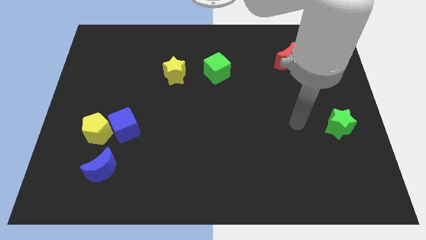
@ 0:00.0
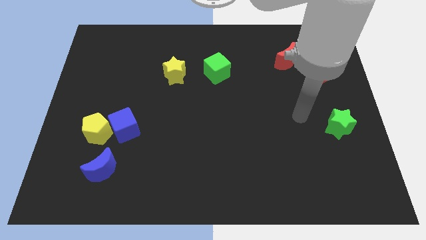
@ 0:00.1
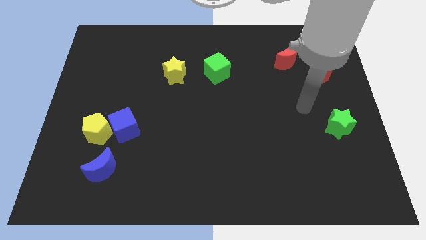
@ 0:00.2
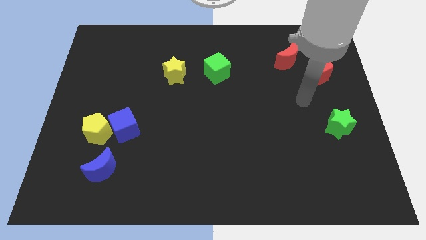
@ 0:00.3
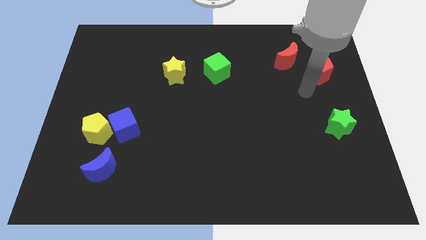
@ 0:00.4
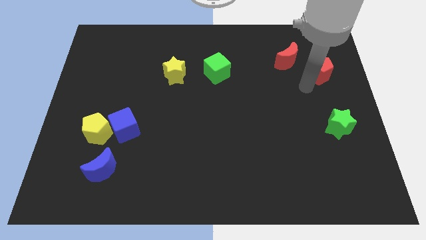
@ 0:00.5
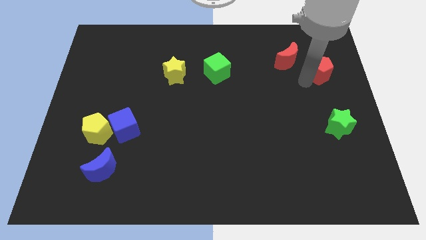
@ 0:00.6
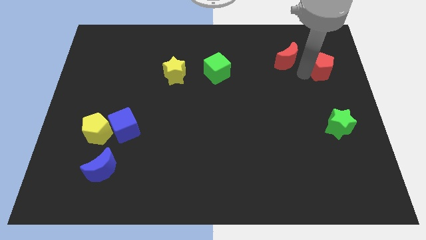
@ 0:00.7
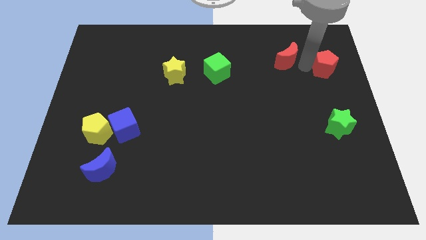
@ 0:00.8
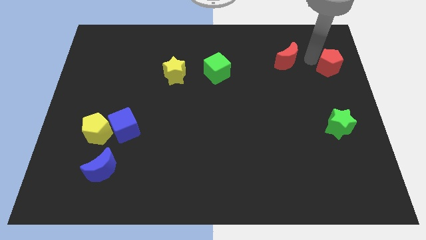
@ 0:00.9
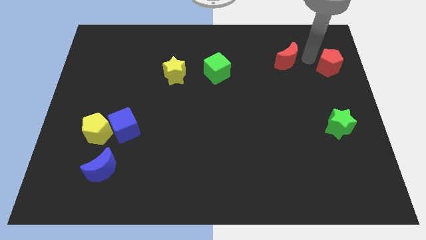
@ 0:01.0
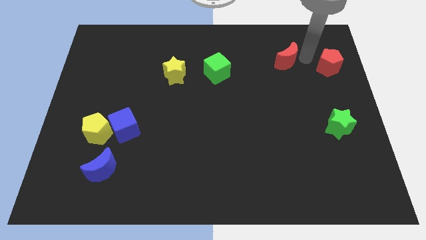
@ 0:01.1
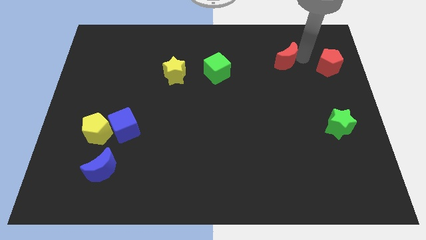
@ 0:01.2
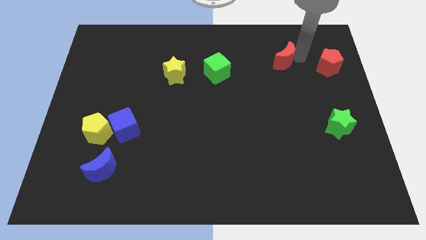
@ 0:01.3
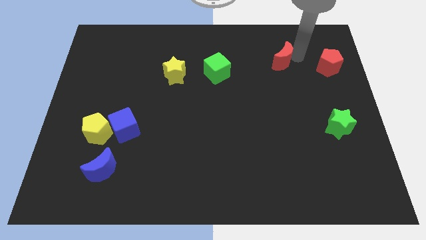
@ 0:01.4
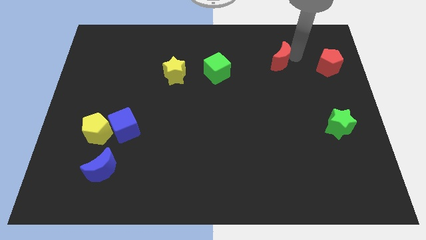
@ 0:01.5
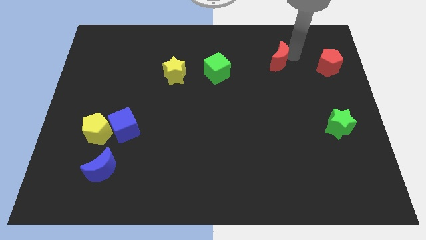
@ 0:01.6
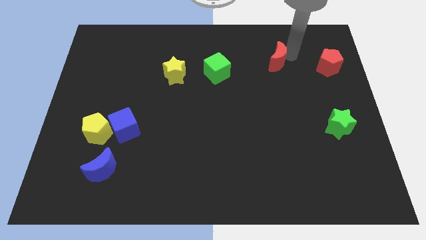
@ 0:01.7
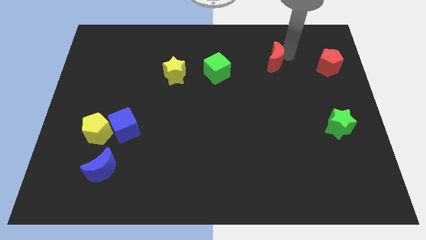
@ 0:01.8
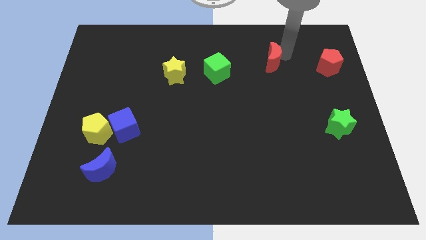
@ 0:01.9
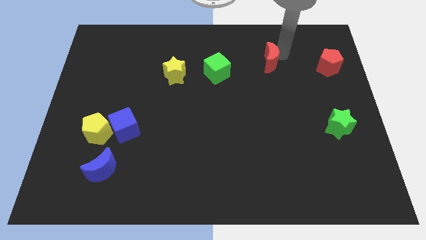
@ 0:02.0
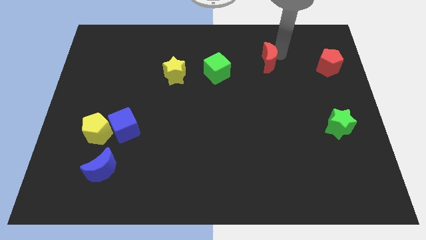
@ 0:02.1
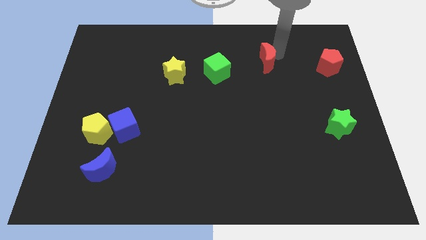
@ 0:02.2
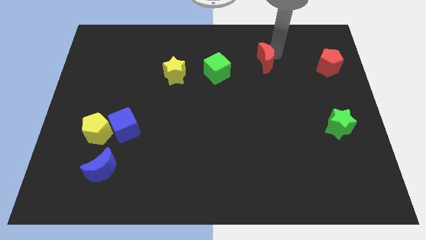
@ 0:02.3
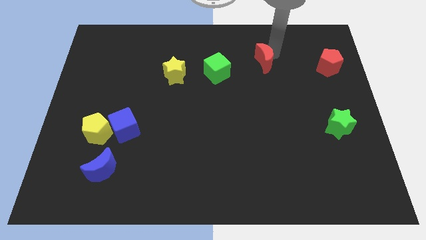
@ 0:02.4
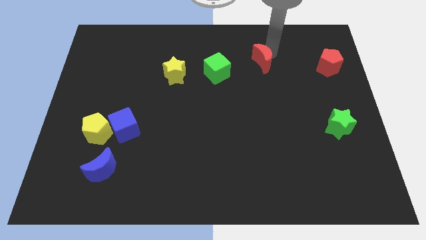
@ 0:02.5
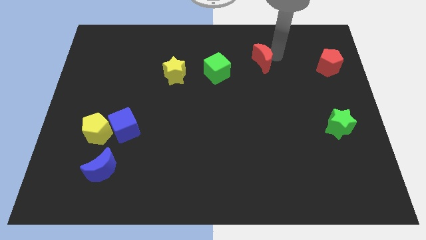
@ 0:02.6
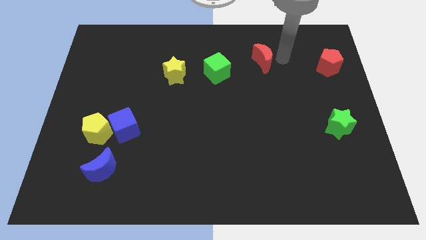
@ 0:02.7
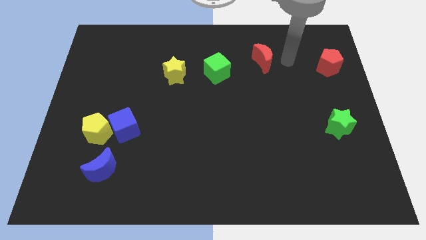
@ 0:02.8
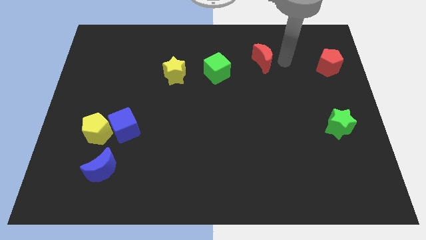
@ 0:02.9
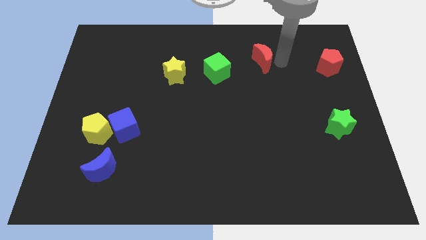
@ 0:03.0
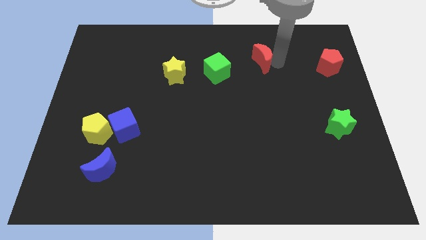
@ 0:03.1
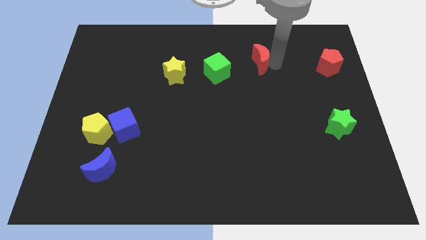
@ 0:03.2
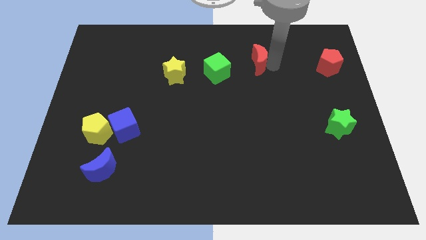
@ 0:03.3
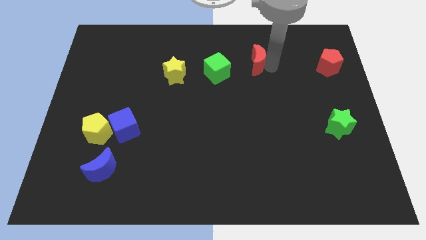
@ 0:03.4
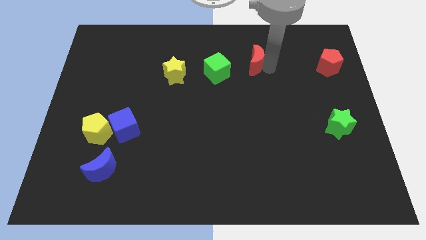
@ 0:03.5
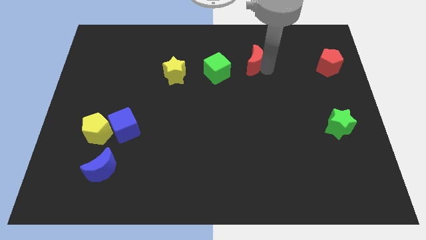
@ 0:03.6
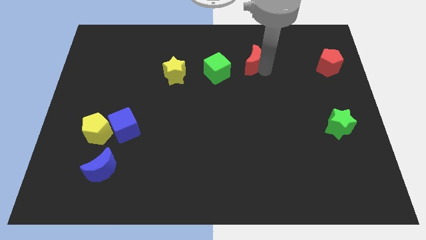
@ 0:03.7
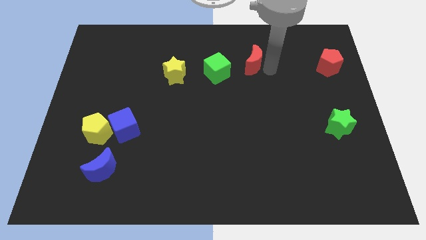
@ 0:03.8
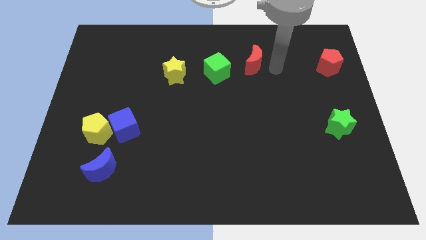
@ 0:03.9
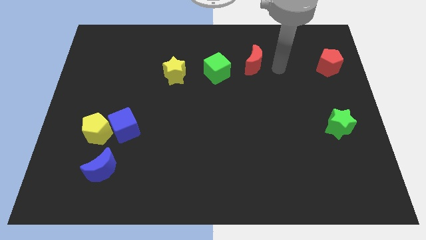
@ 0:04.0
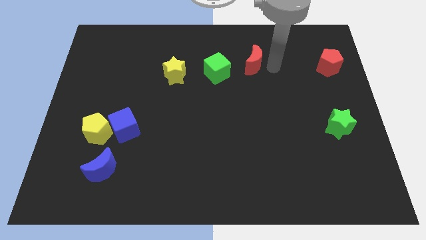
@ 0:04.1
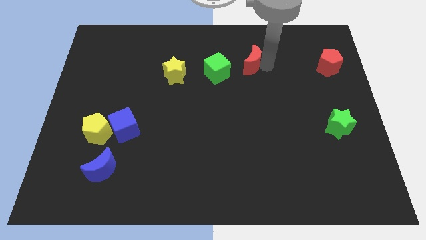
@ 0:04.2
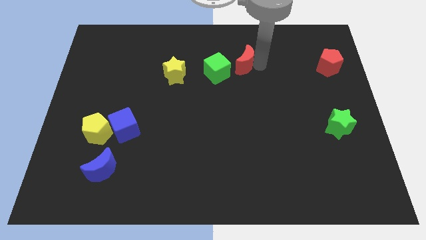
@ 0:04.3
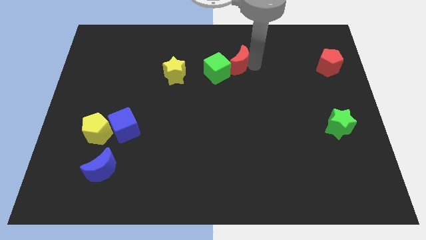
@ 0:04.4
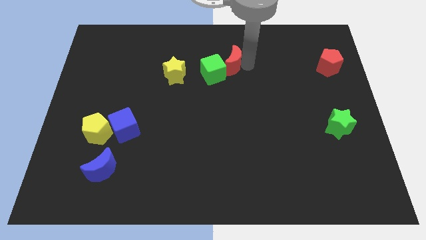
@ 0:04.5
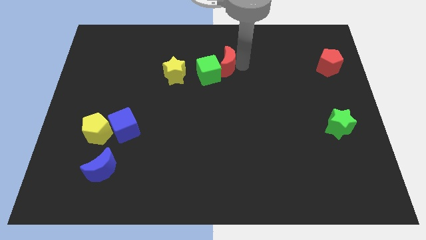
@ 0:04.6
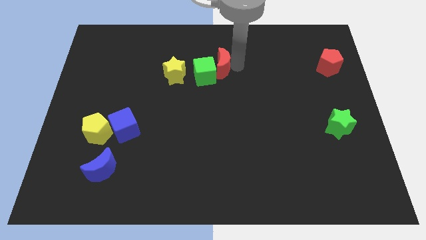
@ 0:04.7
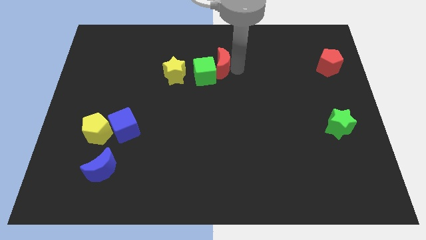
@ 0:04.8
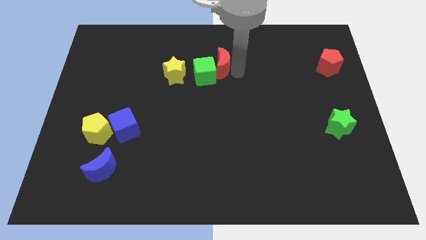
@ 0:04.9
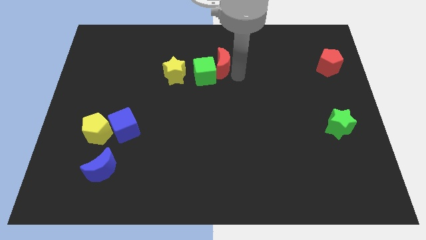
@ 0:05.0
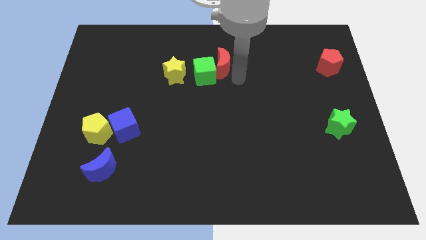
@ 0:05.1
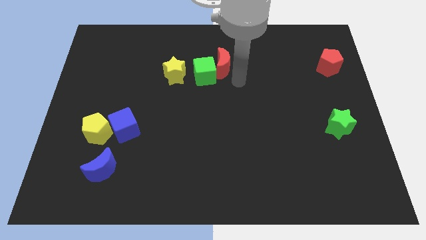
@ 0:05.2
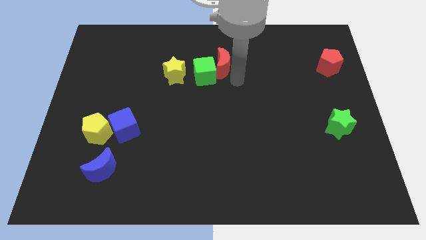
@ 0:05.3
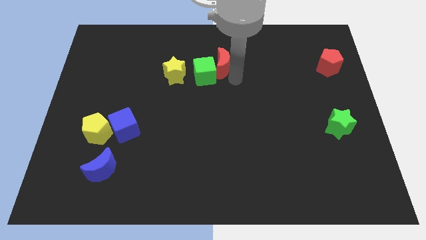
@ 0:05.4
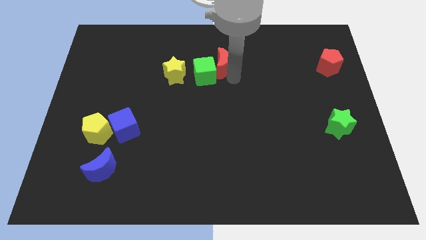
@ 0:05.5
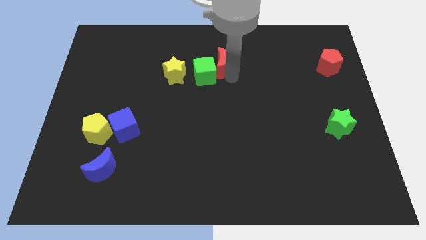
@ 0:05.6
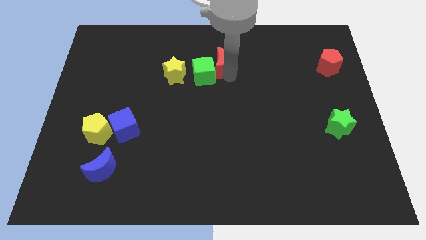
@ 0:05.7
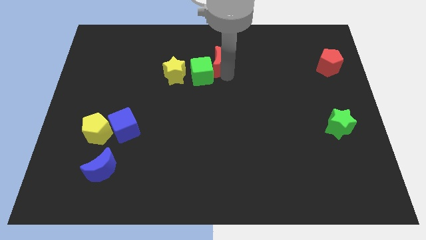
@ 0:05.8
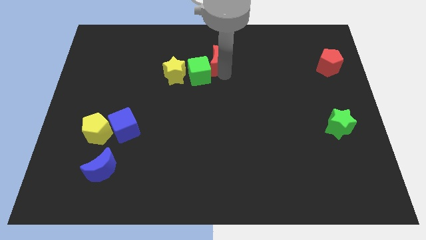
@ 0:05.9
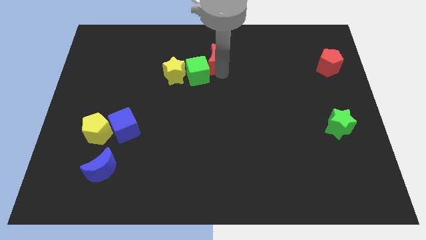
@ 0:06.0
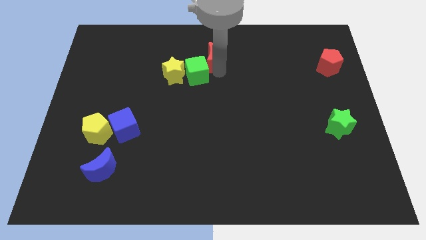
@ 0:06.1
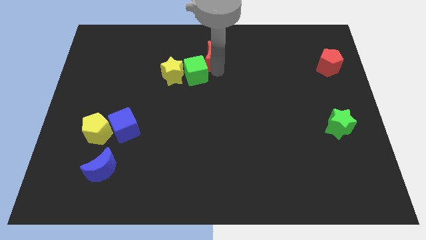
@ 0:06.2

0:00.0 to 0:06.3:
slide the red moon to the left

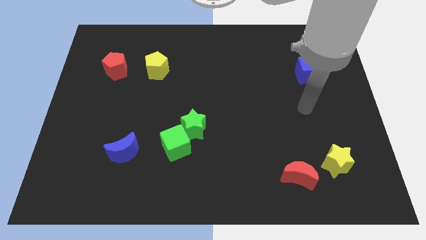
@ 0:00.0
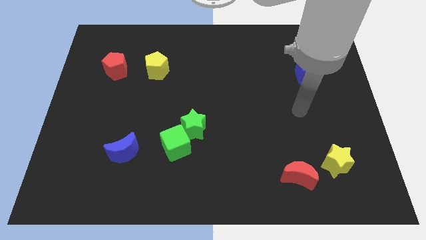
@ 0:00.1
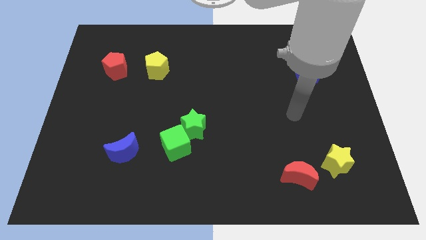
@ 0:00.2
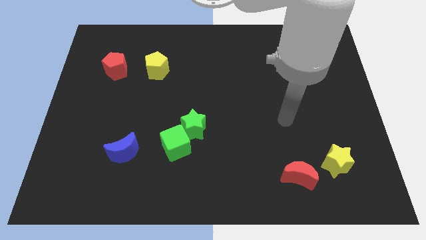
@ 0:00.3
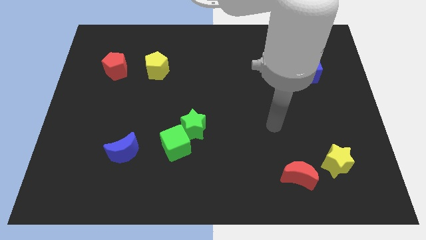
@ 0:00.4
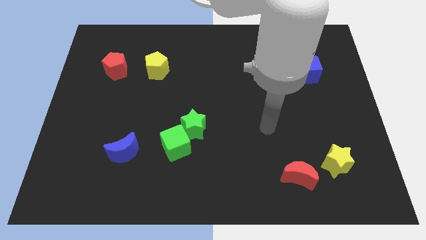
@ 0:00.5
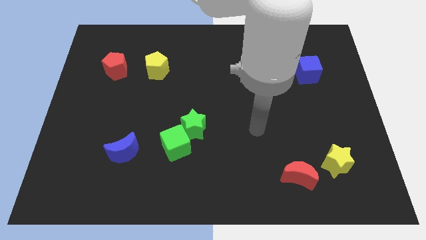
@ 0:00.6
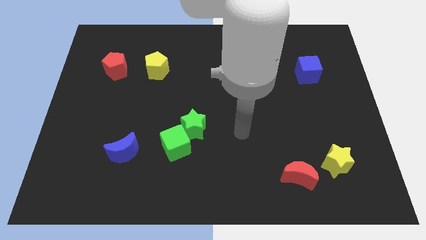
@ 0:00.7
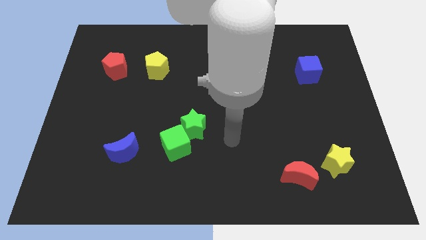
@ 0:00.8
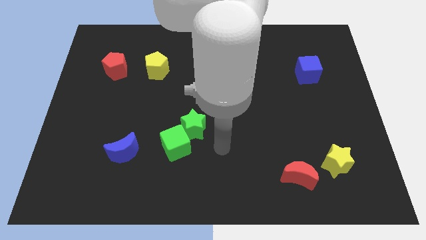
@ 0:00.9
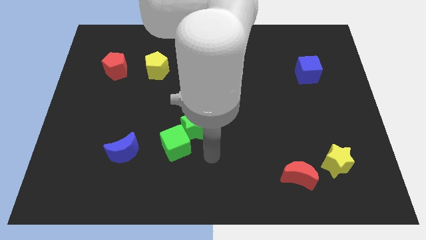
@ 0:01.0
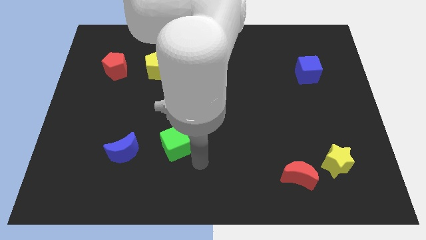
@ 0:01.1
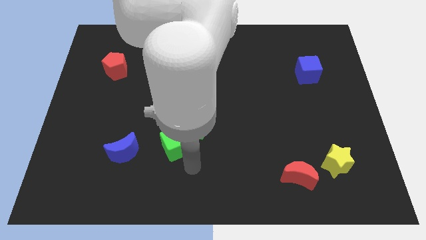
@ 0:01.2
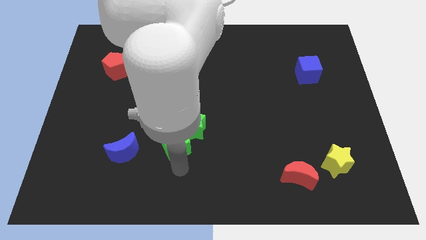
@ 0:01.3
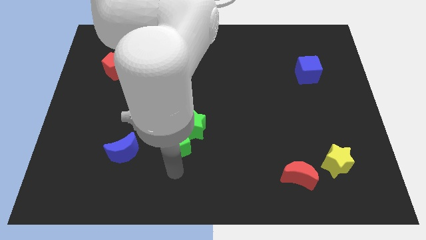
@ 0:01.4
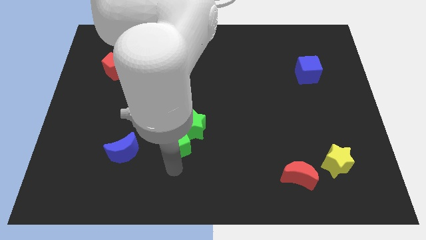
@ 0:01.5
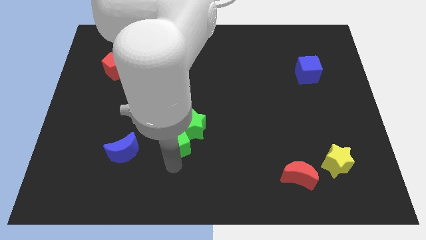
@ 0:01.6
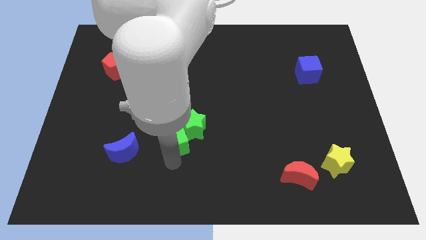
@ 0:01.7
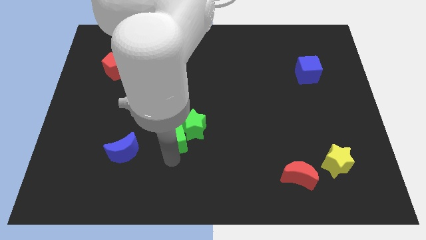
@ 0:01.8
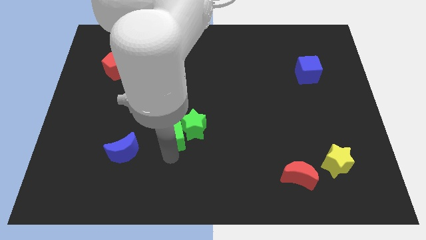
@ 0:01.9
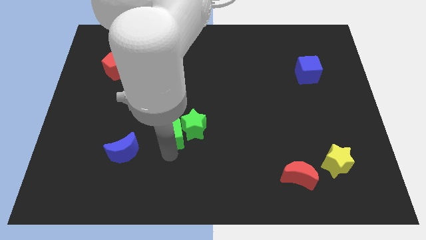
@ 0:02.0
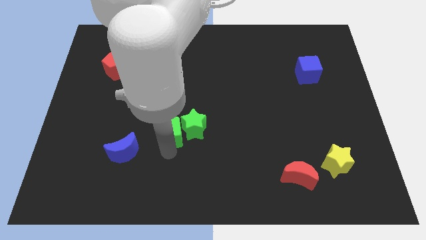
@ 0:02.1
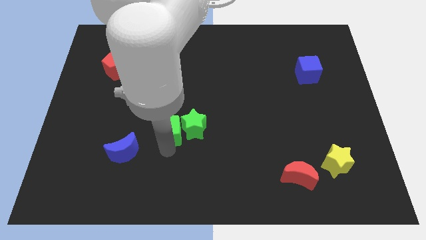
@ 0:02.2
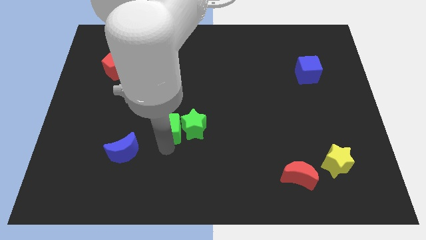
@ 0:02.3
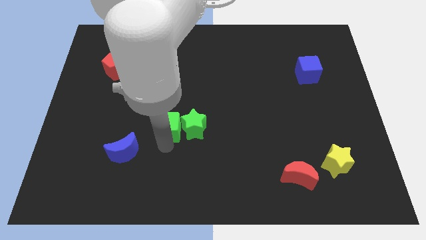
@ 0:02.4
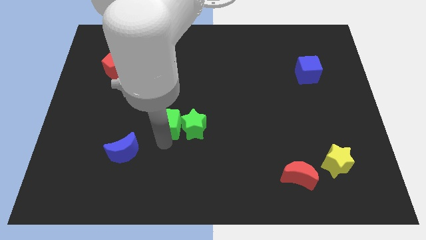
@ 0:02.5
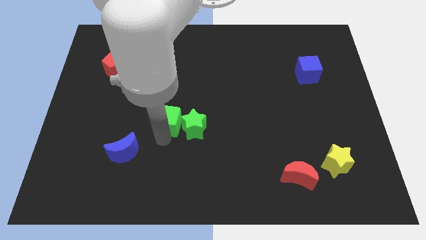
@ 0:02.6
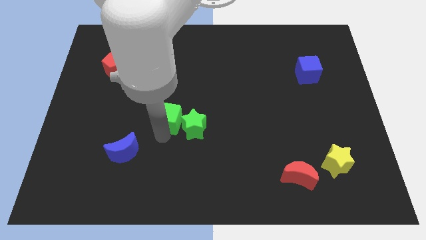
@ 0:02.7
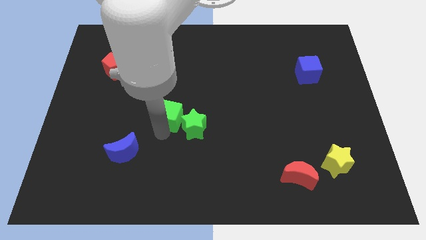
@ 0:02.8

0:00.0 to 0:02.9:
push the green cube upwards a little
